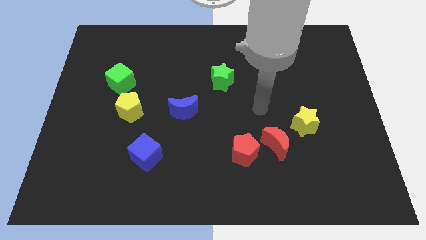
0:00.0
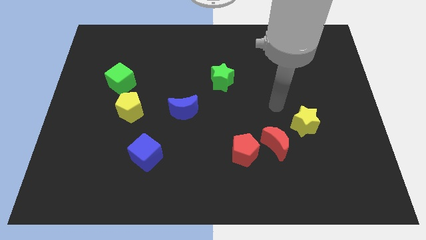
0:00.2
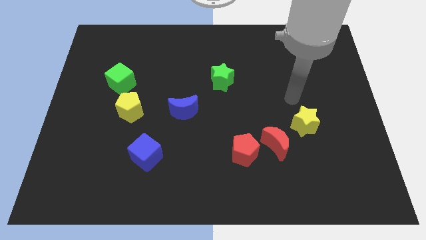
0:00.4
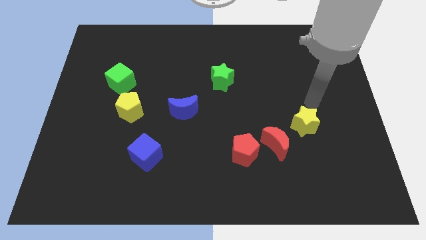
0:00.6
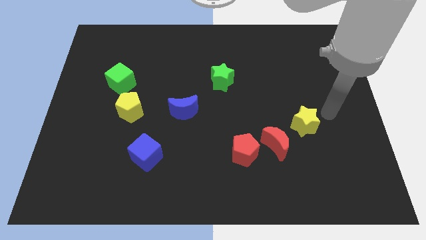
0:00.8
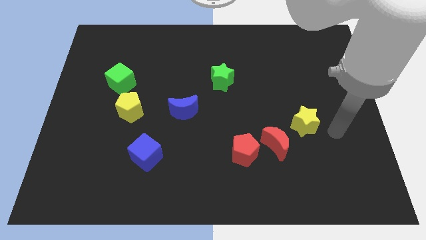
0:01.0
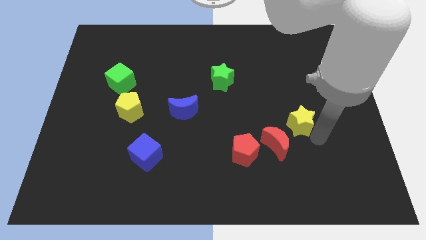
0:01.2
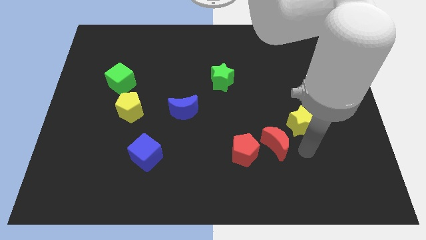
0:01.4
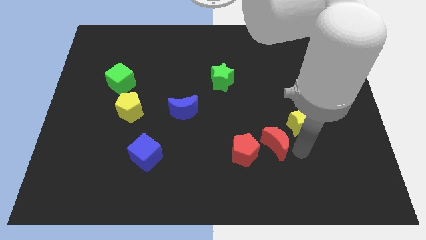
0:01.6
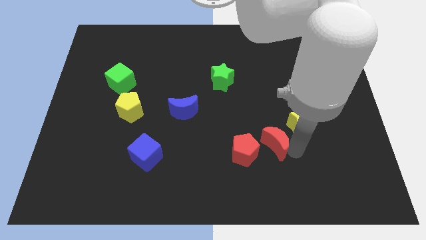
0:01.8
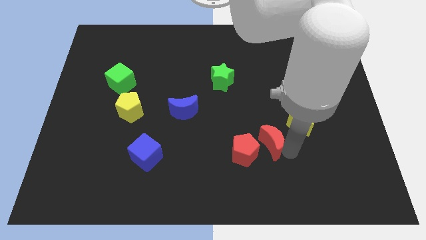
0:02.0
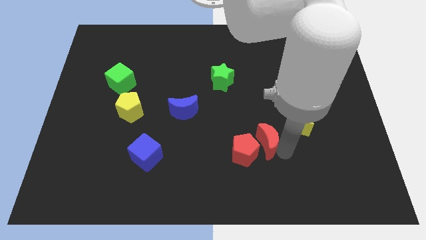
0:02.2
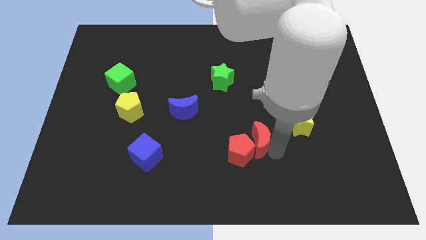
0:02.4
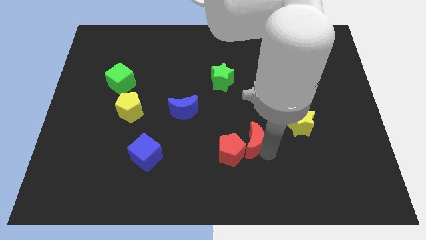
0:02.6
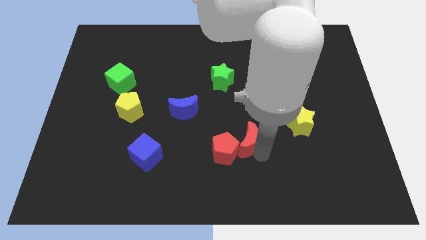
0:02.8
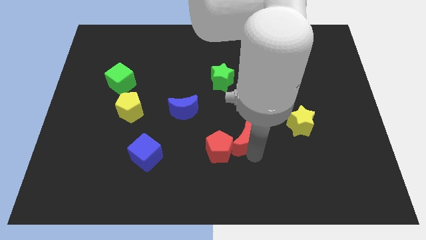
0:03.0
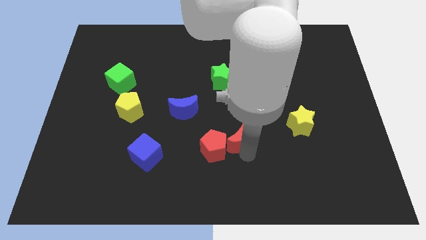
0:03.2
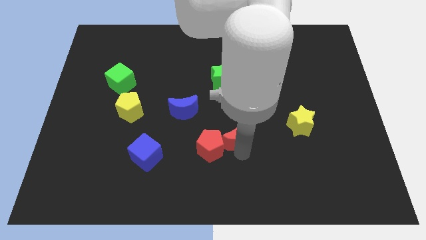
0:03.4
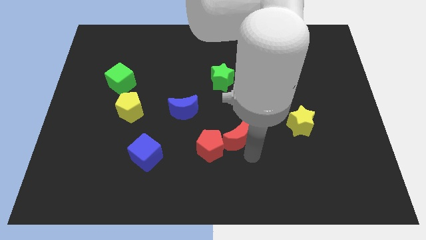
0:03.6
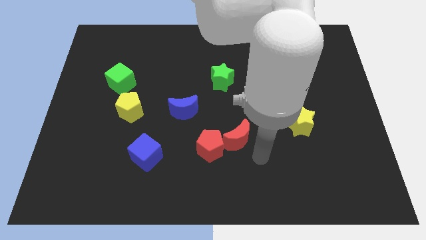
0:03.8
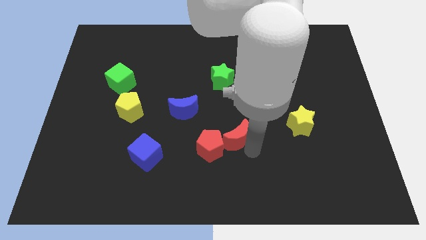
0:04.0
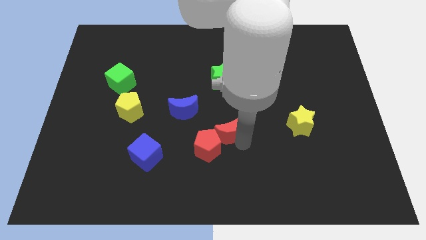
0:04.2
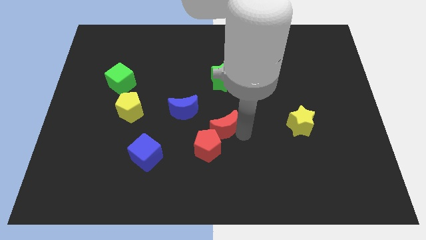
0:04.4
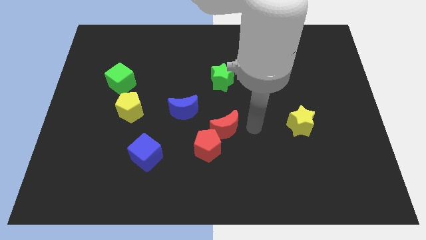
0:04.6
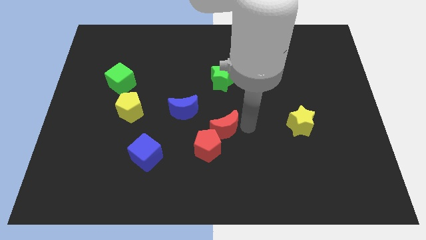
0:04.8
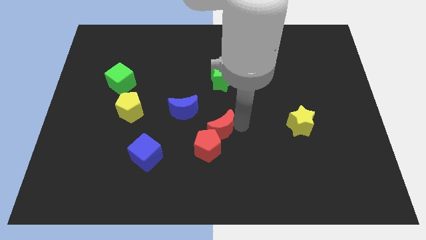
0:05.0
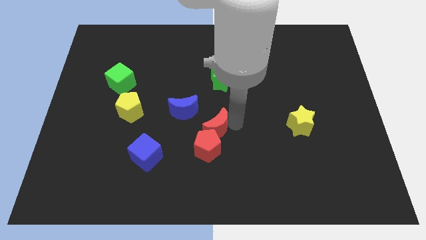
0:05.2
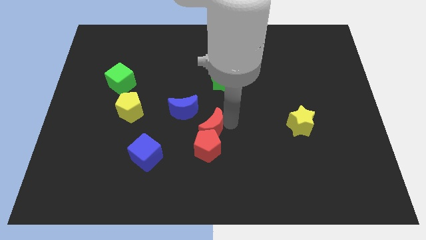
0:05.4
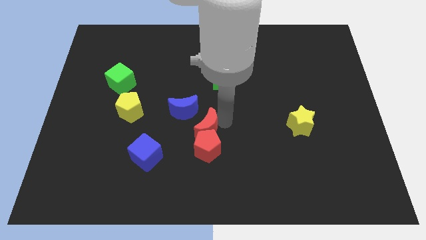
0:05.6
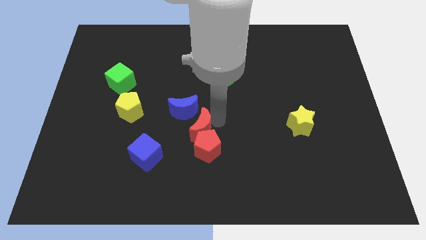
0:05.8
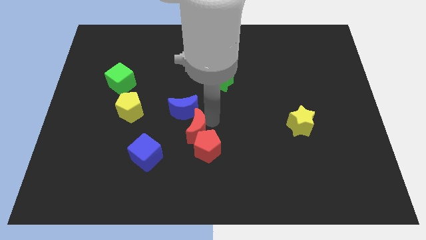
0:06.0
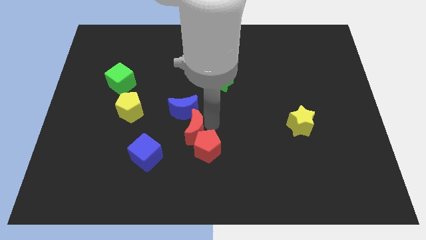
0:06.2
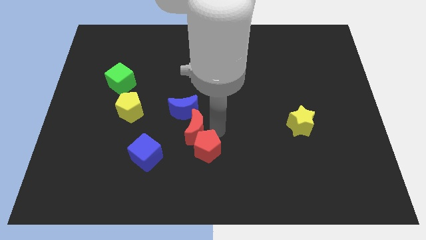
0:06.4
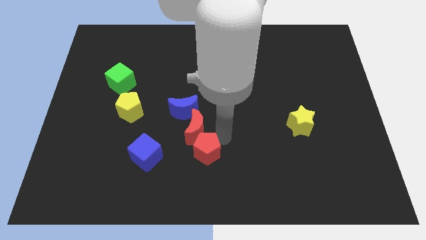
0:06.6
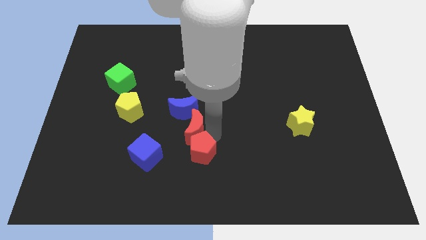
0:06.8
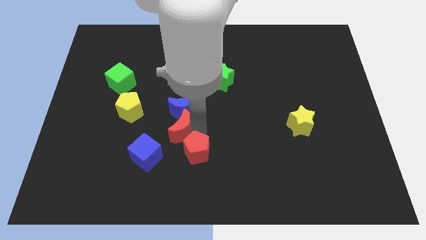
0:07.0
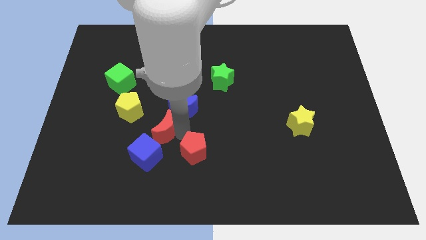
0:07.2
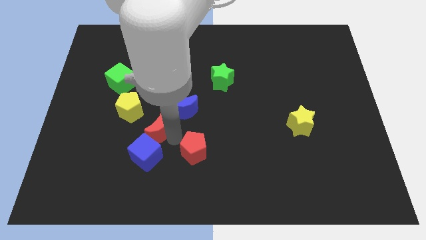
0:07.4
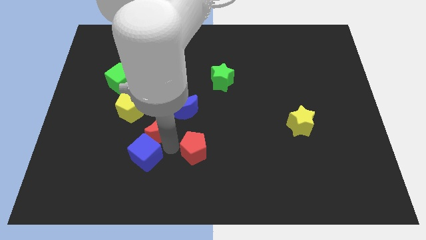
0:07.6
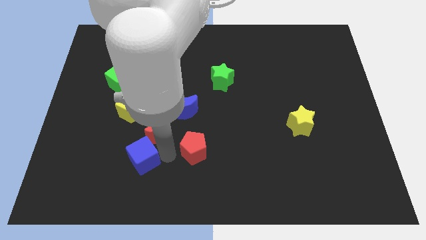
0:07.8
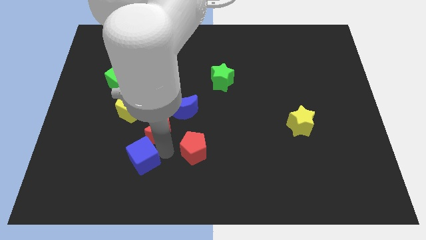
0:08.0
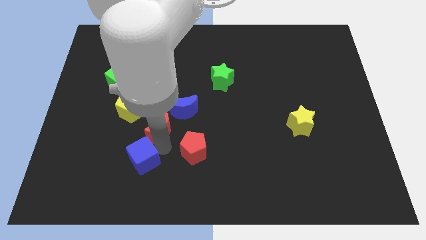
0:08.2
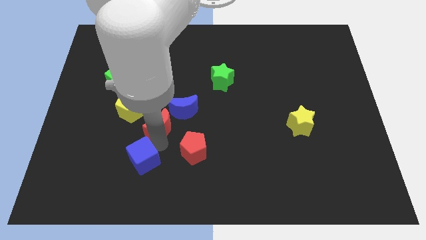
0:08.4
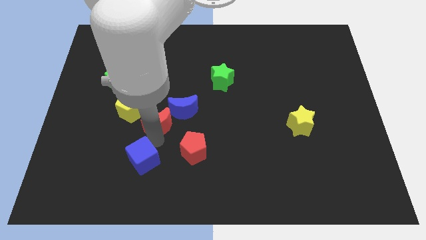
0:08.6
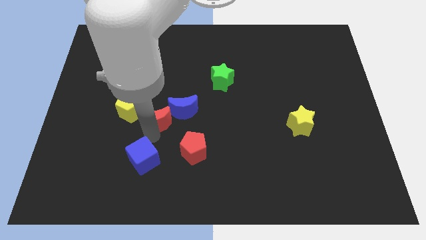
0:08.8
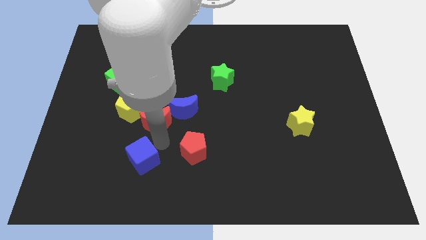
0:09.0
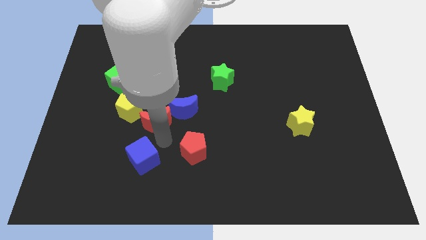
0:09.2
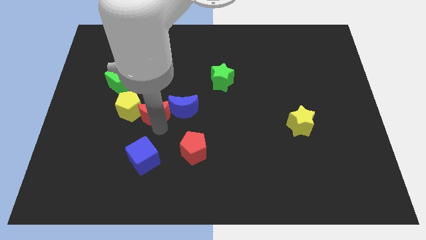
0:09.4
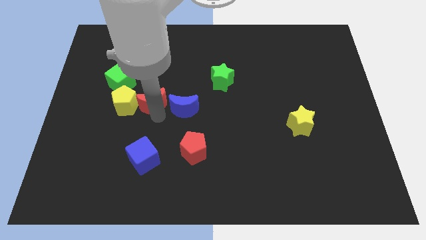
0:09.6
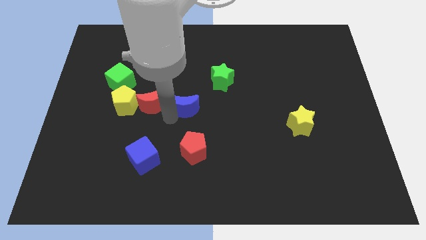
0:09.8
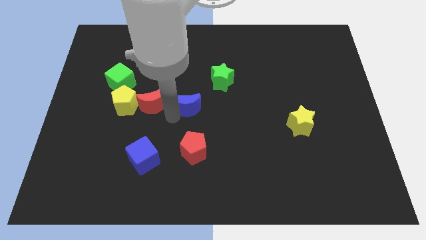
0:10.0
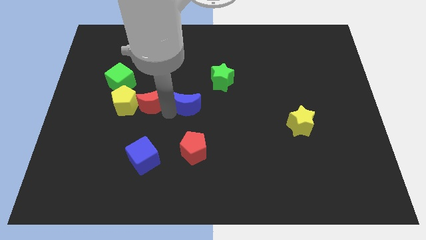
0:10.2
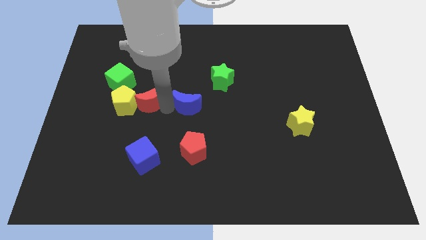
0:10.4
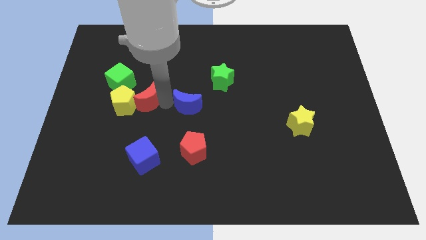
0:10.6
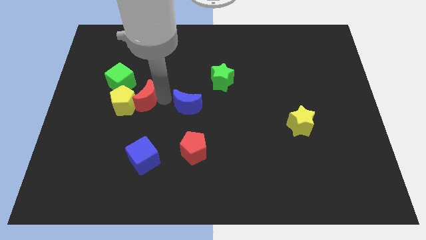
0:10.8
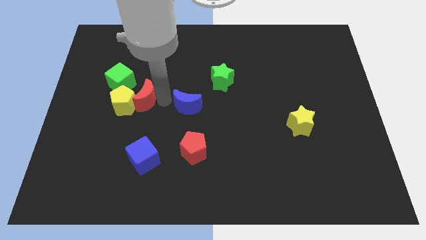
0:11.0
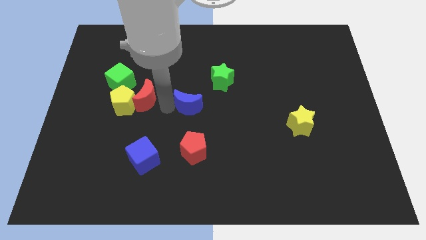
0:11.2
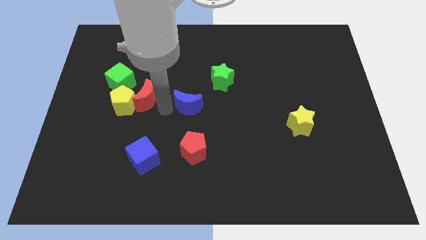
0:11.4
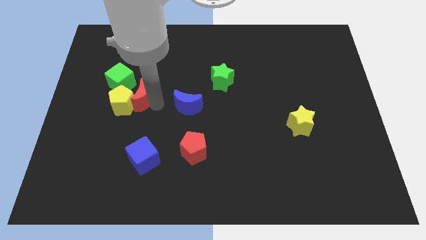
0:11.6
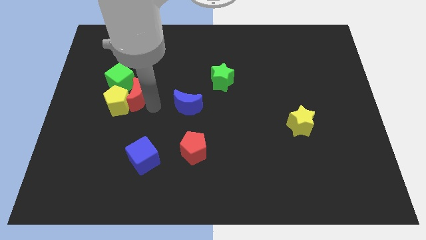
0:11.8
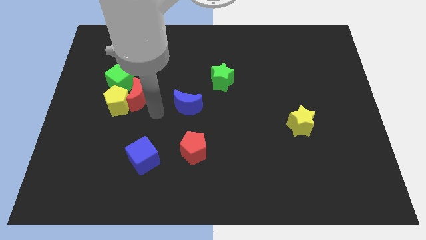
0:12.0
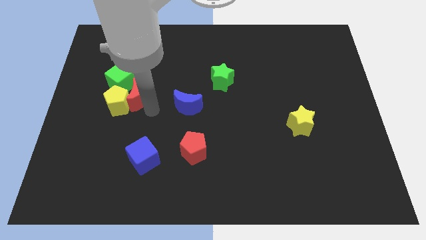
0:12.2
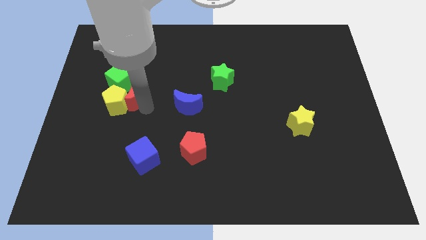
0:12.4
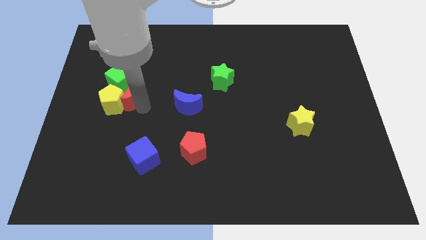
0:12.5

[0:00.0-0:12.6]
move the red moon to the green cube

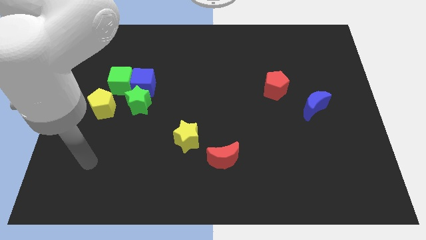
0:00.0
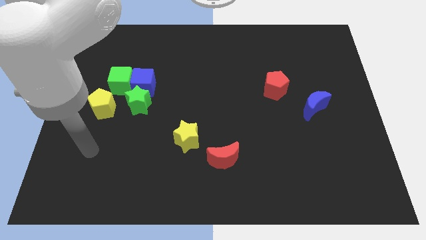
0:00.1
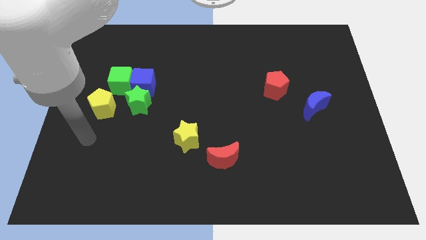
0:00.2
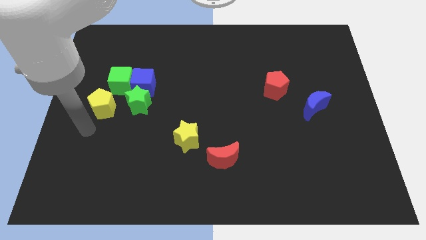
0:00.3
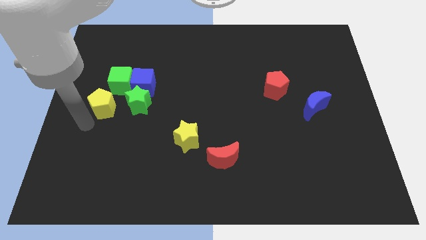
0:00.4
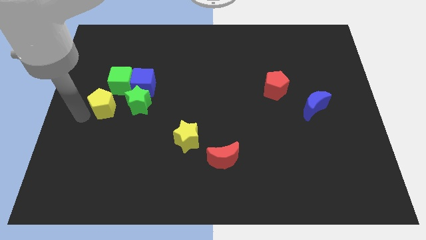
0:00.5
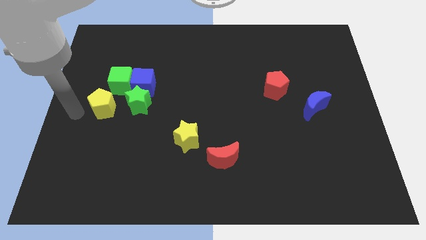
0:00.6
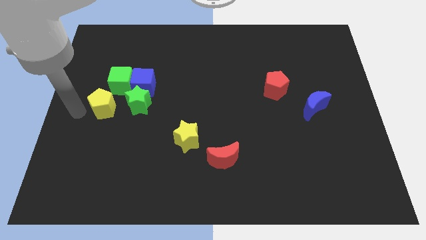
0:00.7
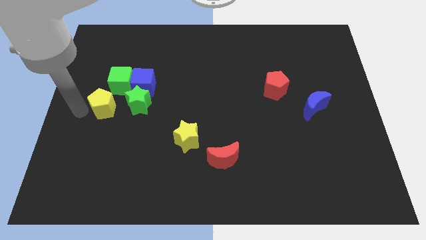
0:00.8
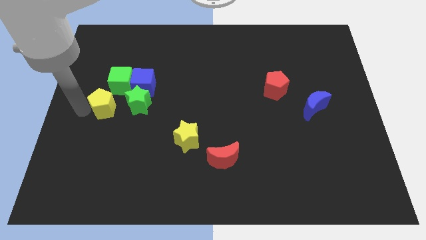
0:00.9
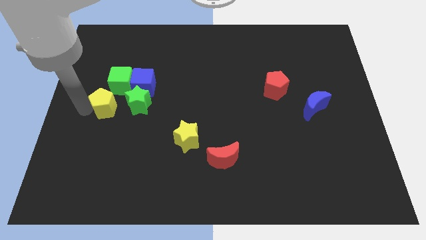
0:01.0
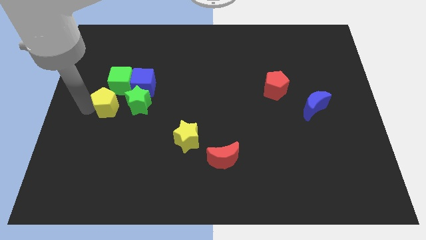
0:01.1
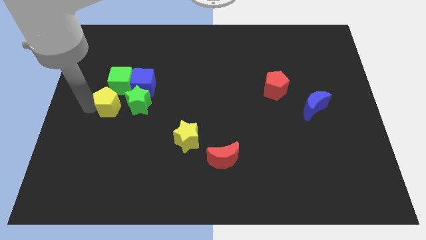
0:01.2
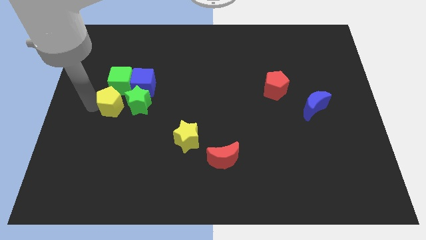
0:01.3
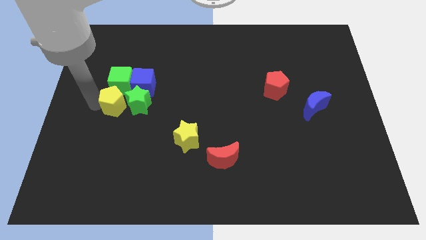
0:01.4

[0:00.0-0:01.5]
move the yellow pentagon towards the green star

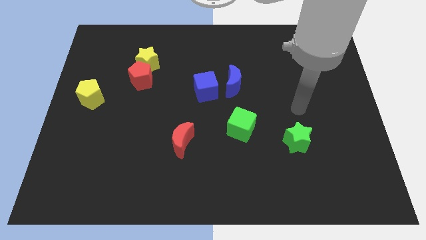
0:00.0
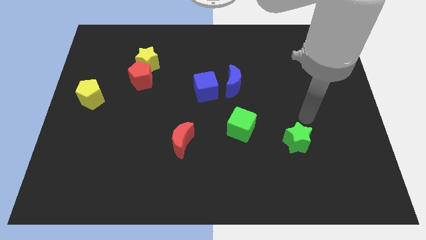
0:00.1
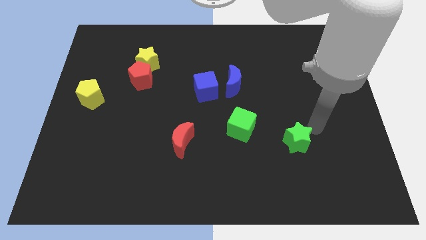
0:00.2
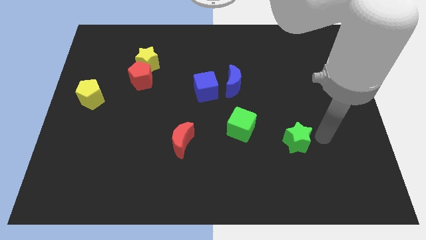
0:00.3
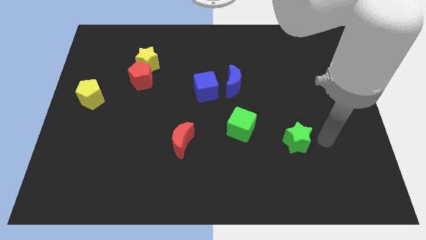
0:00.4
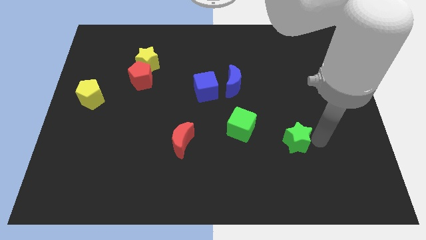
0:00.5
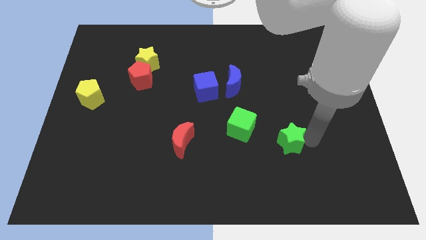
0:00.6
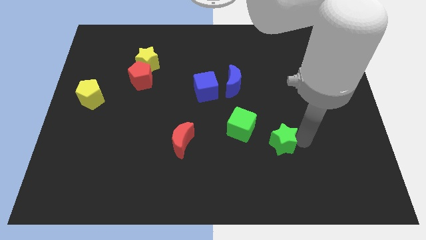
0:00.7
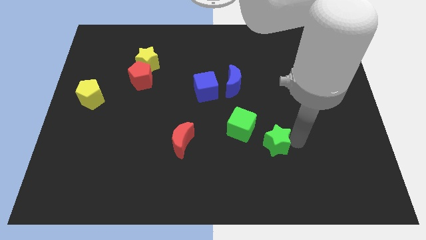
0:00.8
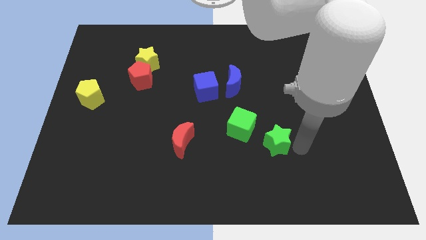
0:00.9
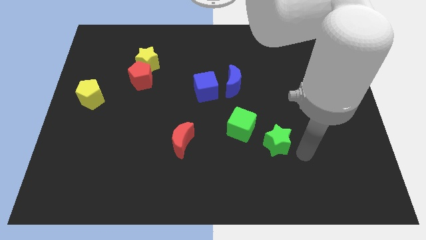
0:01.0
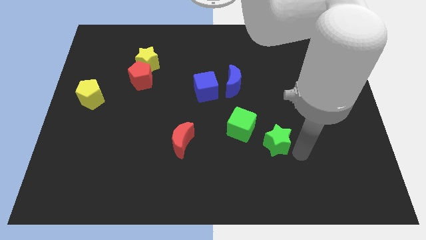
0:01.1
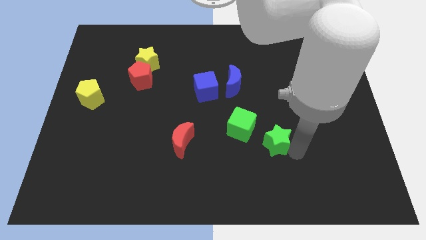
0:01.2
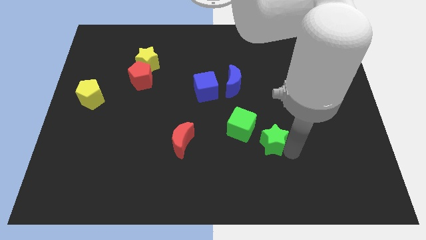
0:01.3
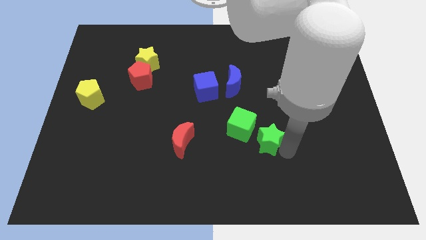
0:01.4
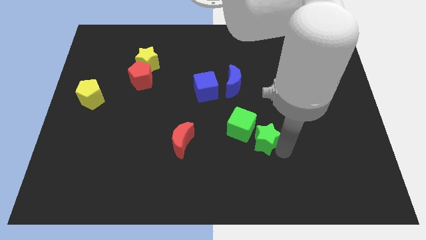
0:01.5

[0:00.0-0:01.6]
push the green star to the green cube
